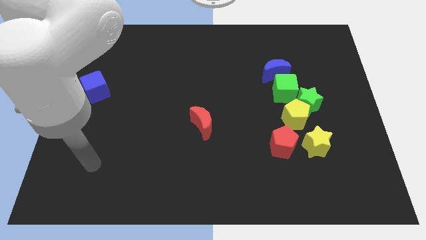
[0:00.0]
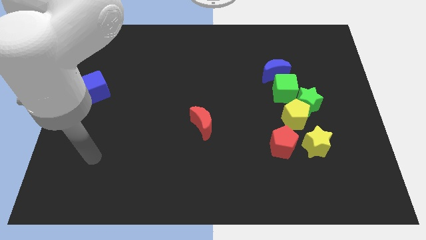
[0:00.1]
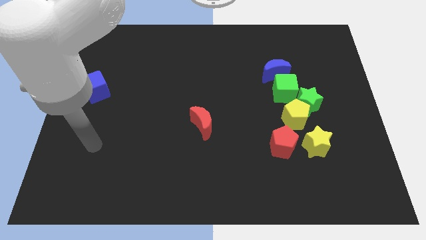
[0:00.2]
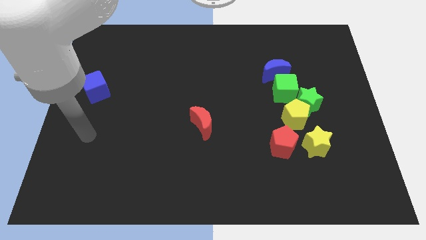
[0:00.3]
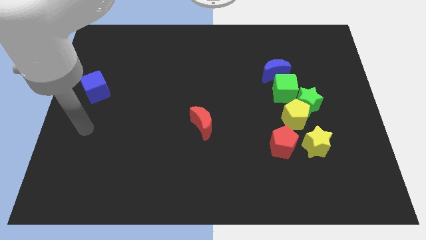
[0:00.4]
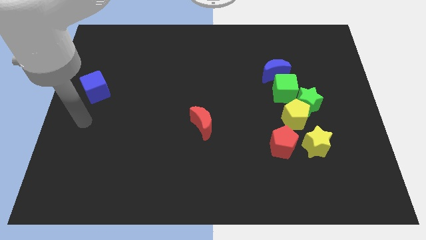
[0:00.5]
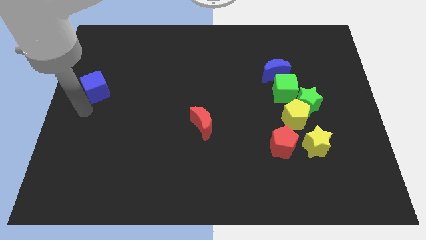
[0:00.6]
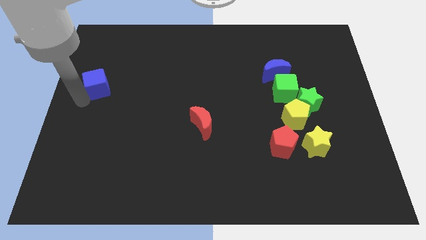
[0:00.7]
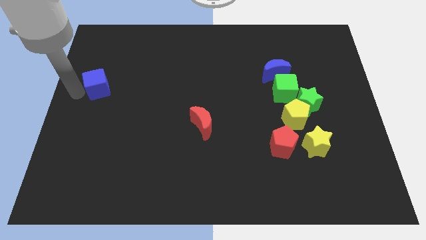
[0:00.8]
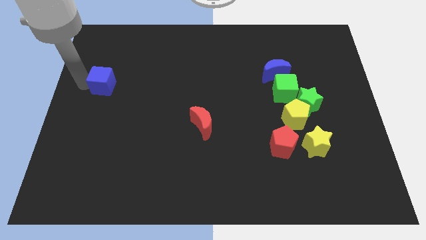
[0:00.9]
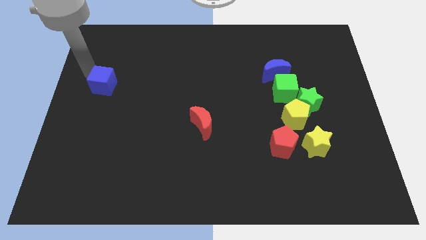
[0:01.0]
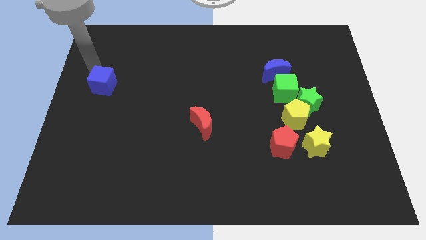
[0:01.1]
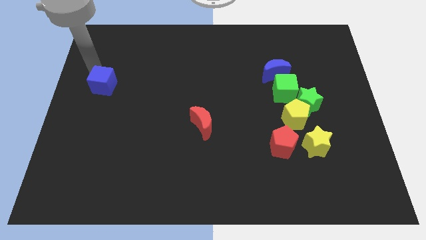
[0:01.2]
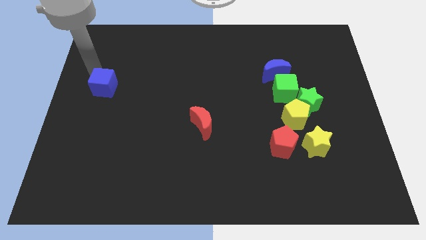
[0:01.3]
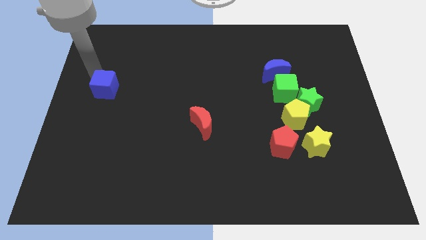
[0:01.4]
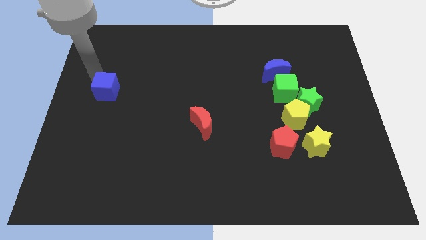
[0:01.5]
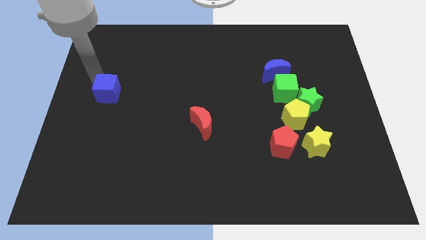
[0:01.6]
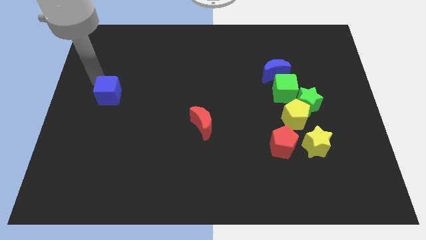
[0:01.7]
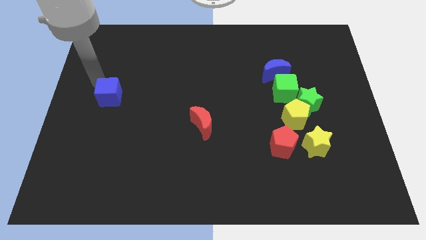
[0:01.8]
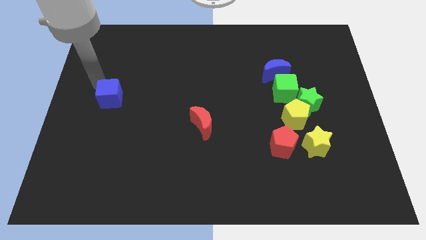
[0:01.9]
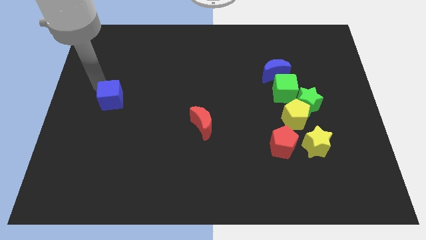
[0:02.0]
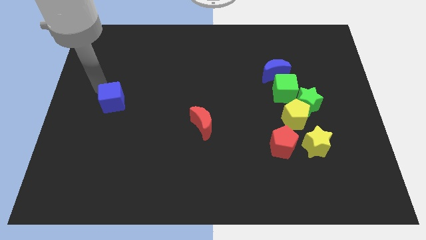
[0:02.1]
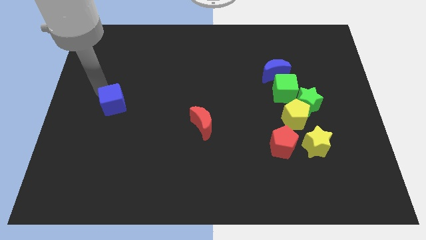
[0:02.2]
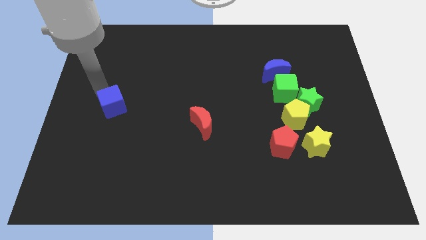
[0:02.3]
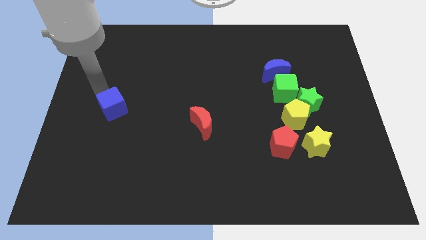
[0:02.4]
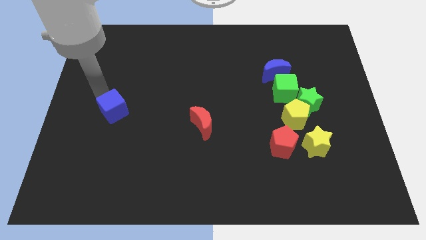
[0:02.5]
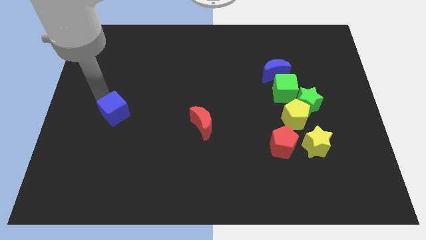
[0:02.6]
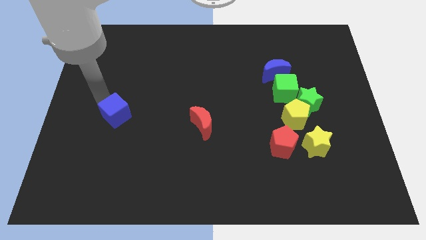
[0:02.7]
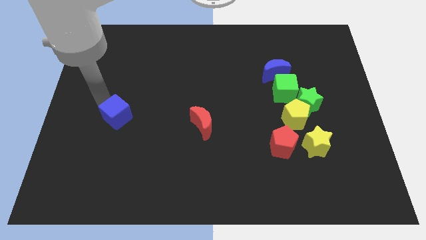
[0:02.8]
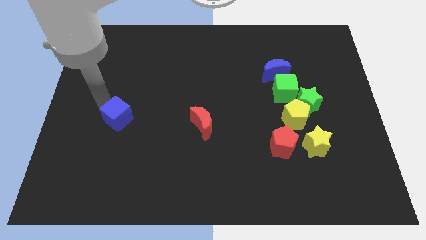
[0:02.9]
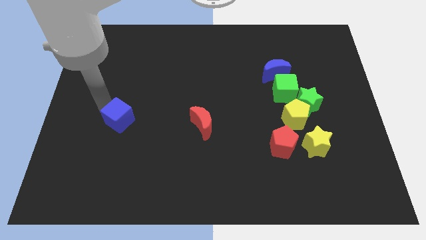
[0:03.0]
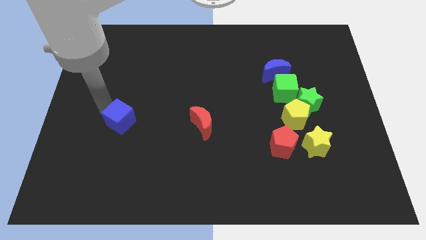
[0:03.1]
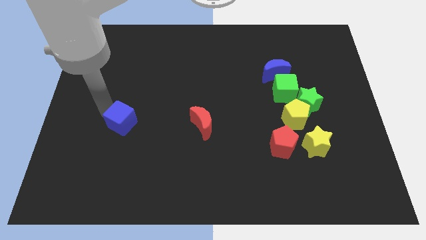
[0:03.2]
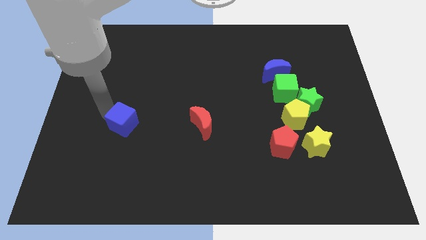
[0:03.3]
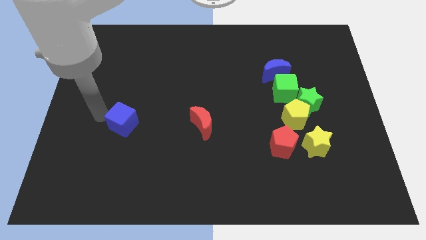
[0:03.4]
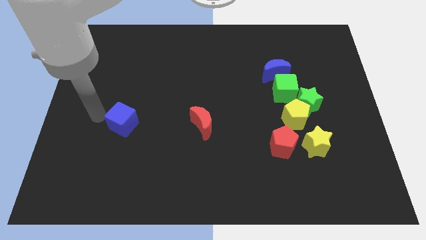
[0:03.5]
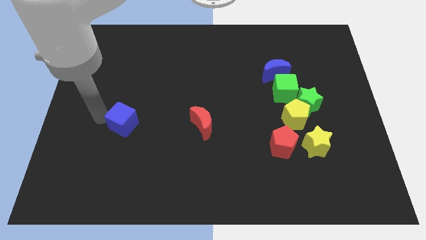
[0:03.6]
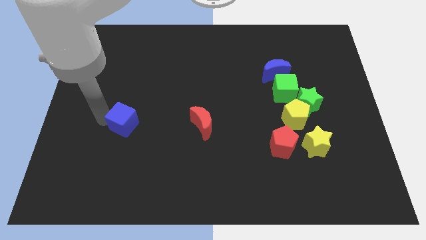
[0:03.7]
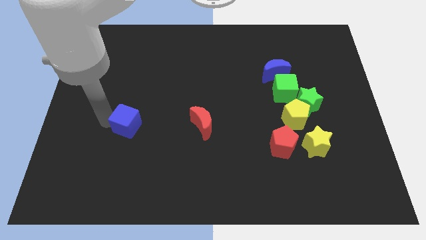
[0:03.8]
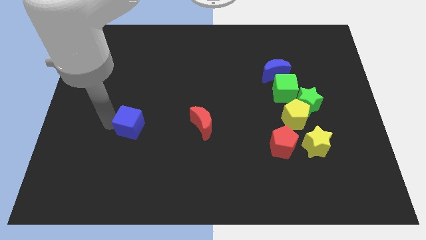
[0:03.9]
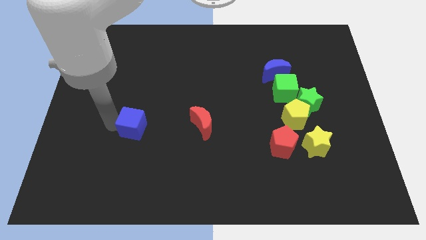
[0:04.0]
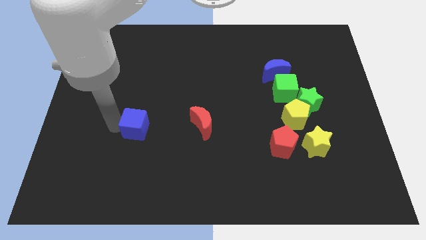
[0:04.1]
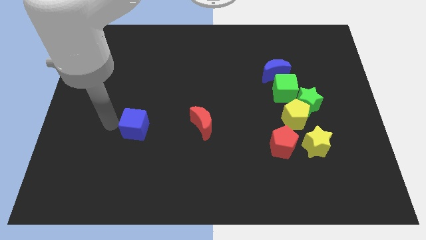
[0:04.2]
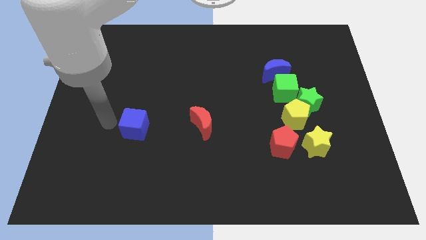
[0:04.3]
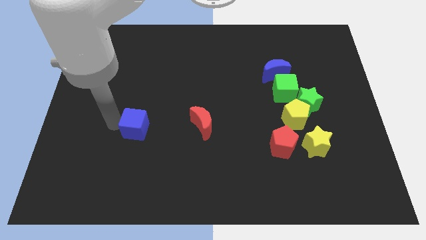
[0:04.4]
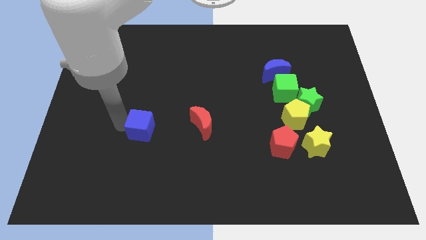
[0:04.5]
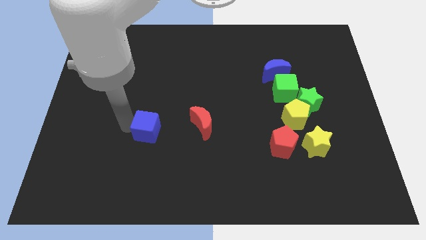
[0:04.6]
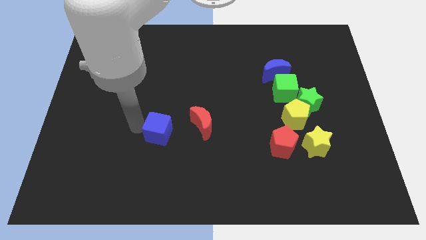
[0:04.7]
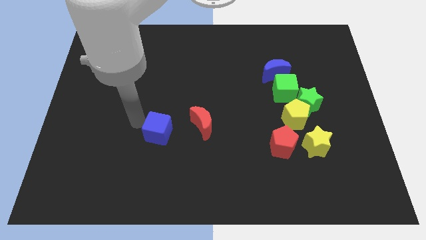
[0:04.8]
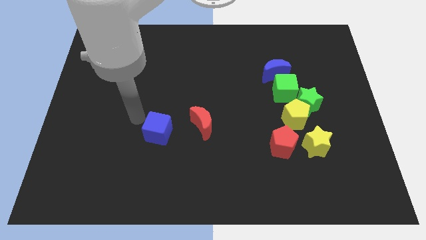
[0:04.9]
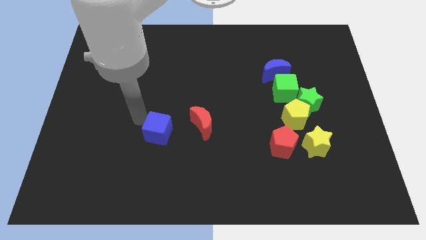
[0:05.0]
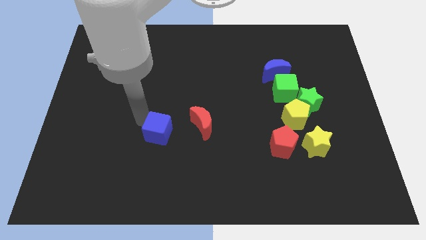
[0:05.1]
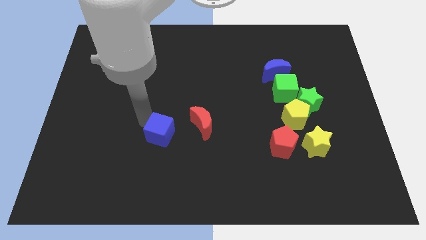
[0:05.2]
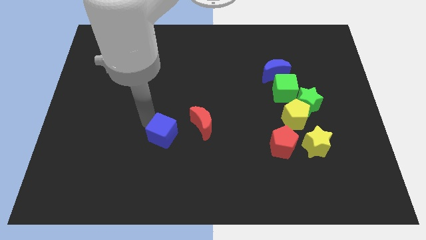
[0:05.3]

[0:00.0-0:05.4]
put the blue cube to the bottom left of the red moon

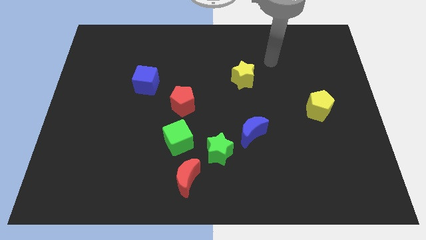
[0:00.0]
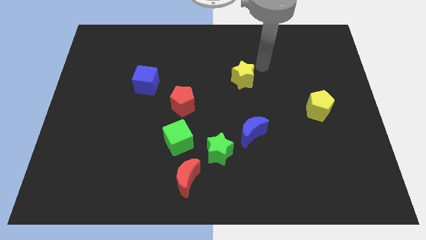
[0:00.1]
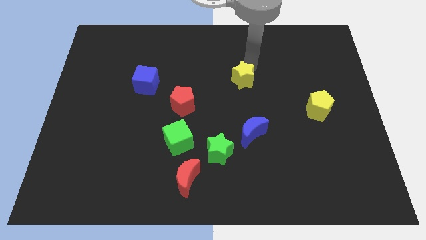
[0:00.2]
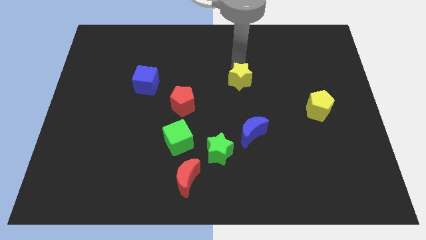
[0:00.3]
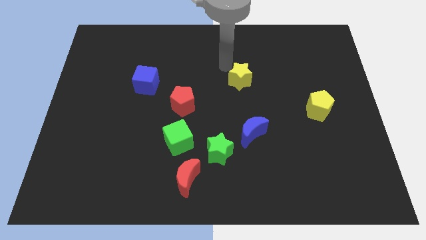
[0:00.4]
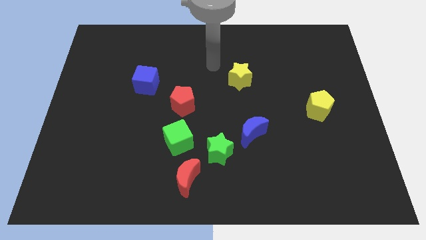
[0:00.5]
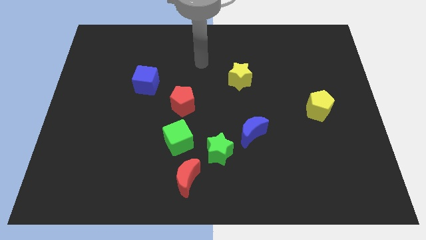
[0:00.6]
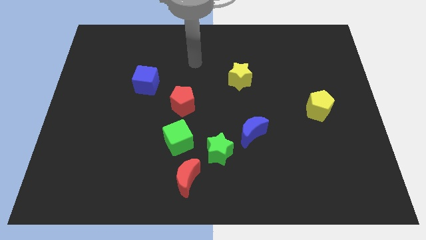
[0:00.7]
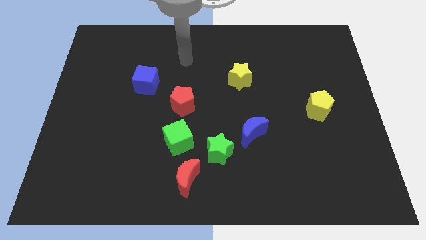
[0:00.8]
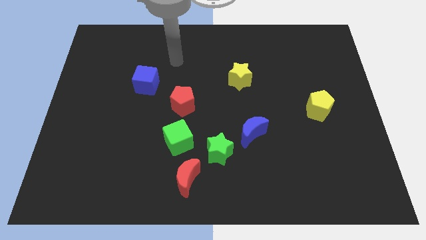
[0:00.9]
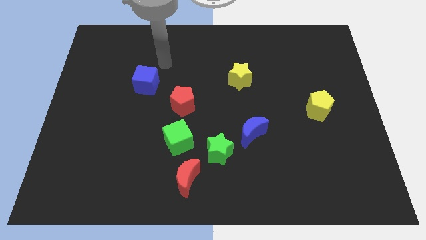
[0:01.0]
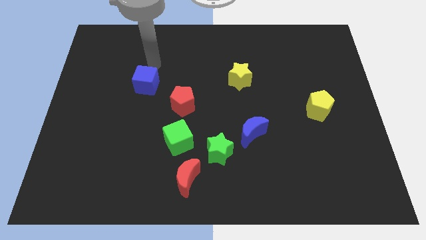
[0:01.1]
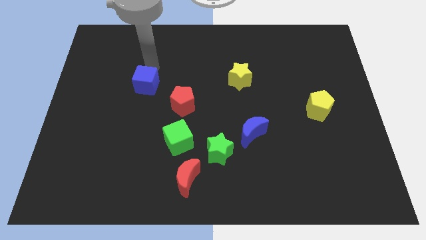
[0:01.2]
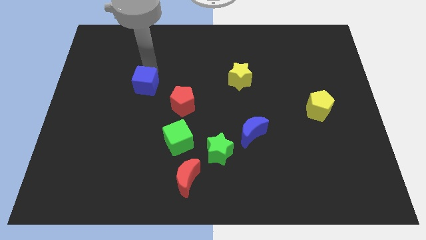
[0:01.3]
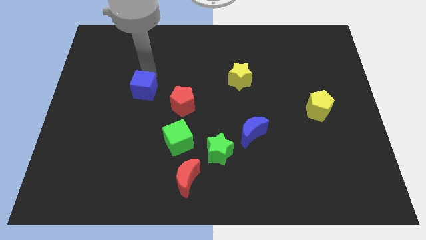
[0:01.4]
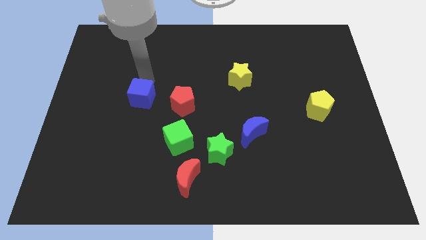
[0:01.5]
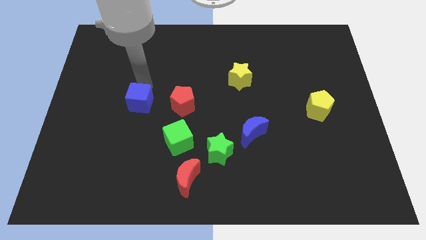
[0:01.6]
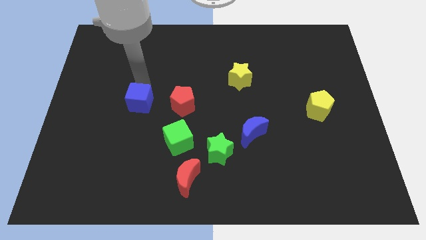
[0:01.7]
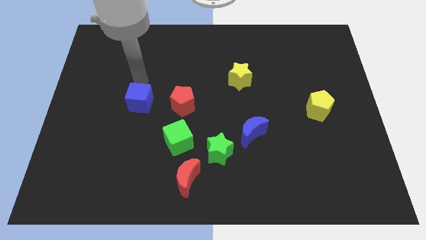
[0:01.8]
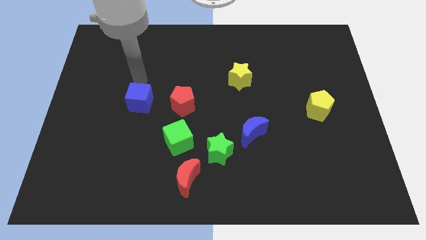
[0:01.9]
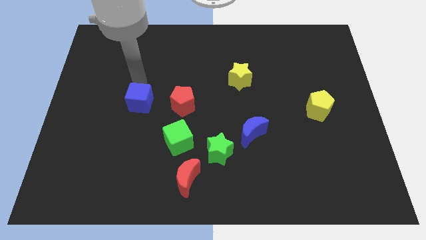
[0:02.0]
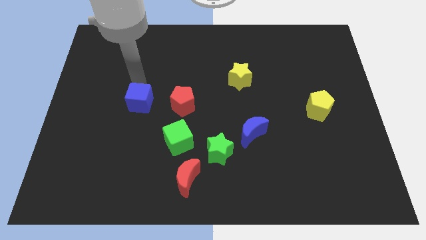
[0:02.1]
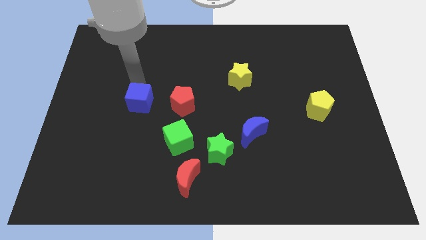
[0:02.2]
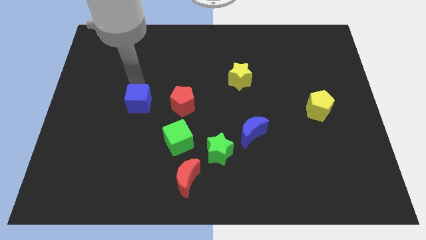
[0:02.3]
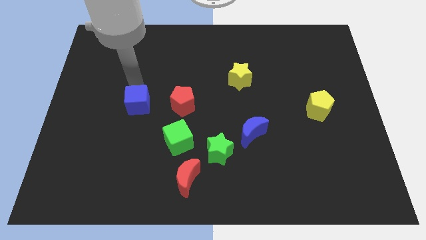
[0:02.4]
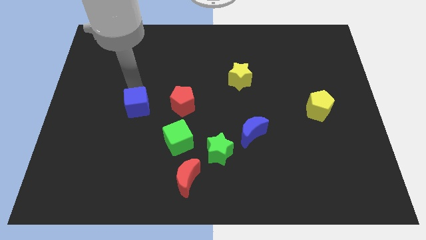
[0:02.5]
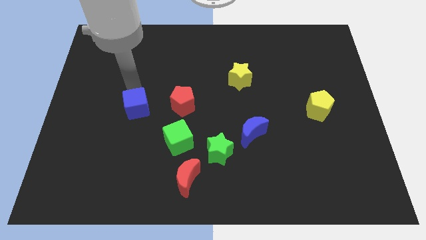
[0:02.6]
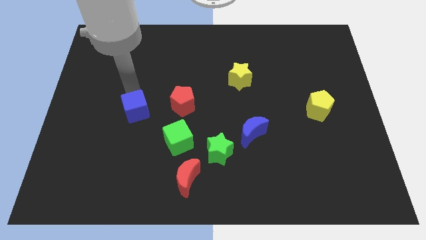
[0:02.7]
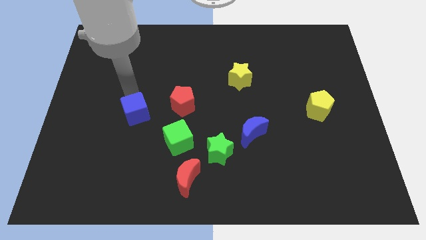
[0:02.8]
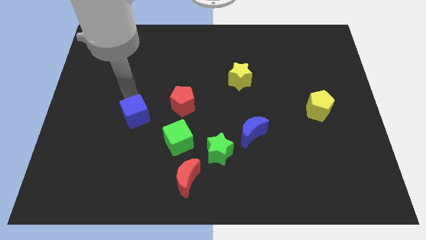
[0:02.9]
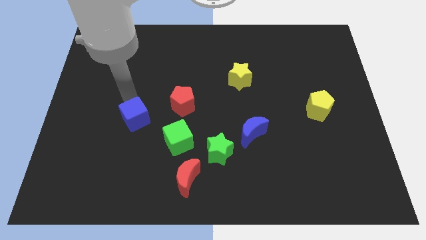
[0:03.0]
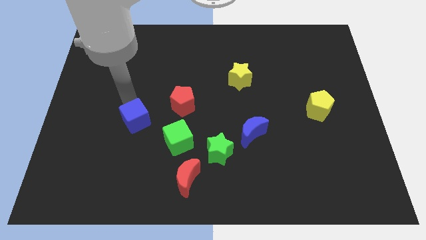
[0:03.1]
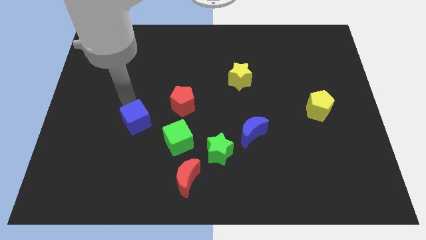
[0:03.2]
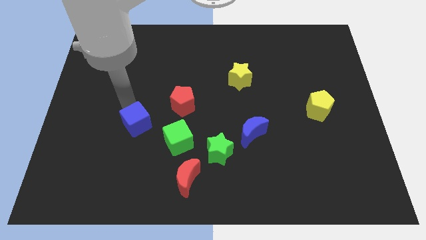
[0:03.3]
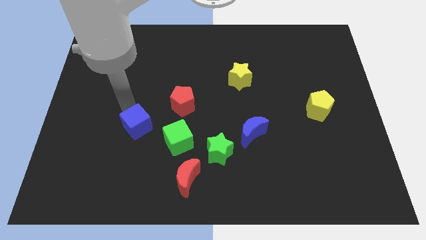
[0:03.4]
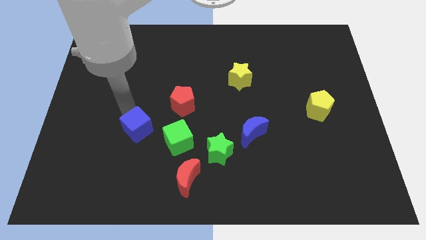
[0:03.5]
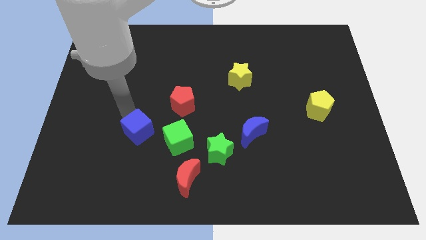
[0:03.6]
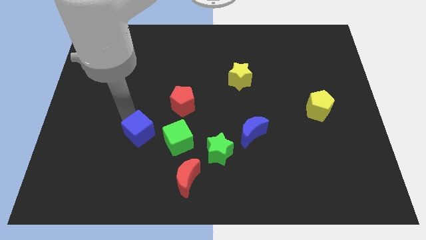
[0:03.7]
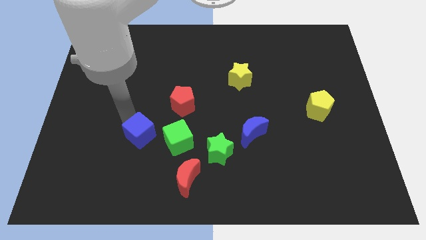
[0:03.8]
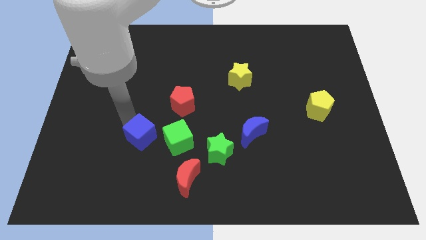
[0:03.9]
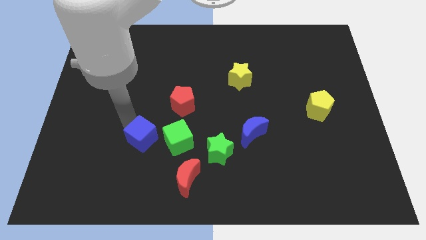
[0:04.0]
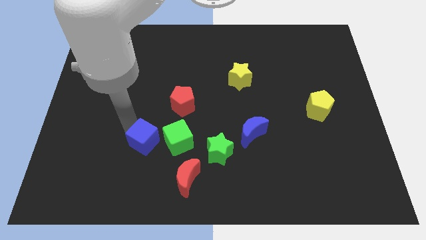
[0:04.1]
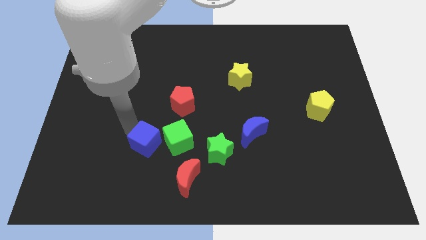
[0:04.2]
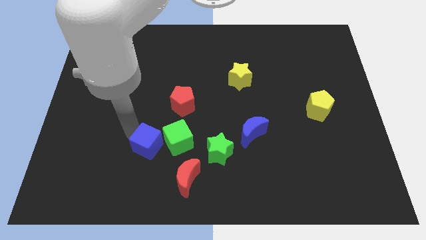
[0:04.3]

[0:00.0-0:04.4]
push the blue cube just left of the green star
